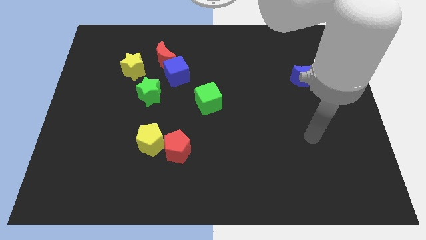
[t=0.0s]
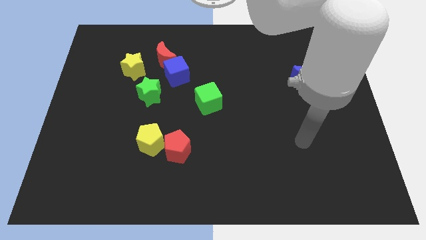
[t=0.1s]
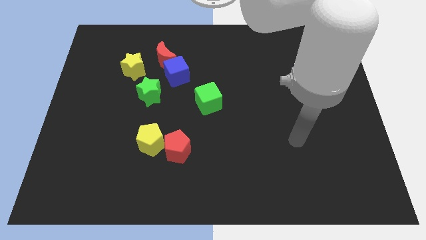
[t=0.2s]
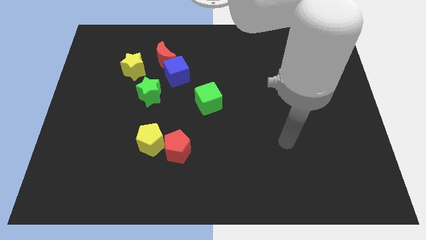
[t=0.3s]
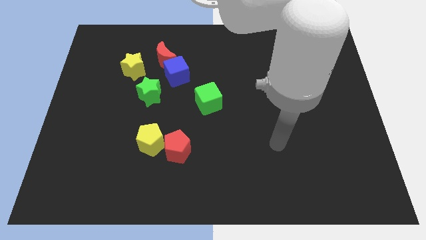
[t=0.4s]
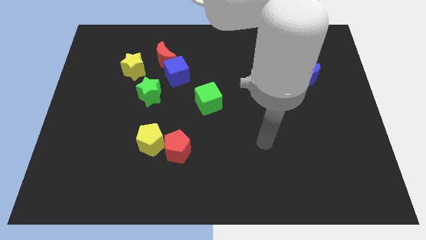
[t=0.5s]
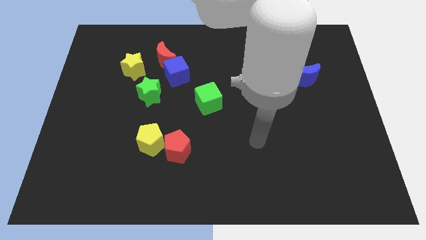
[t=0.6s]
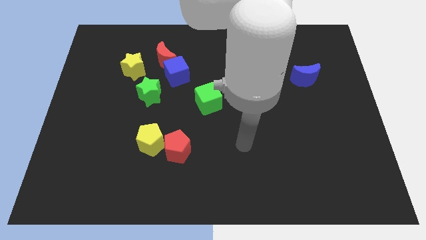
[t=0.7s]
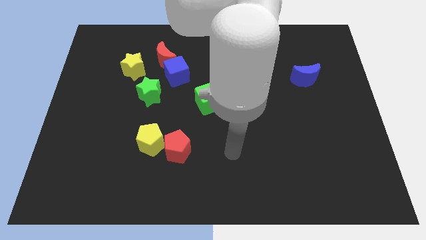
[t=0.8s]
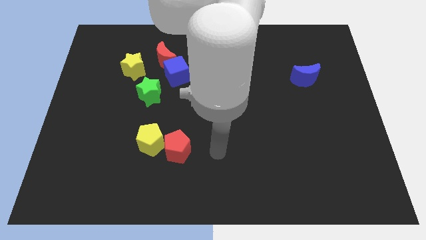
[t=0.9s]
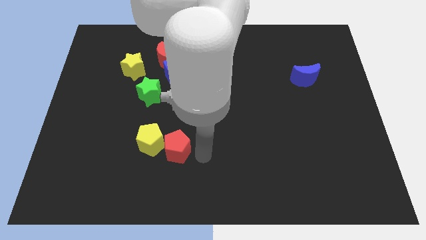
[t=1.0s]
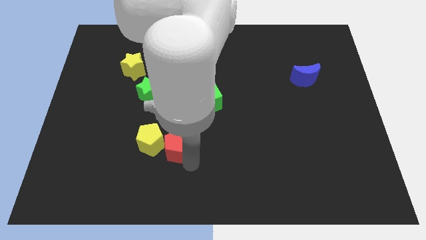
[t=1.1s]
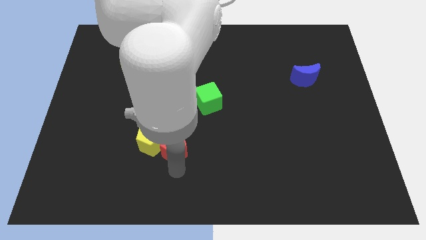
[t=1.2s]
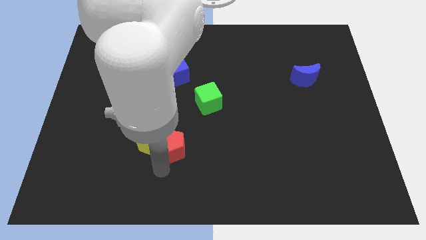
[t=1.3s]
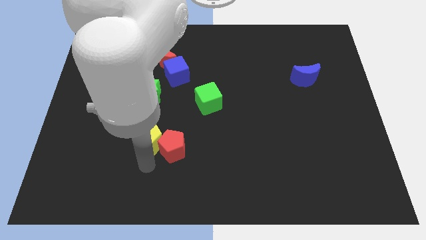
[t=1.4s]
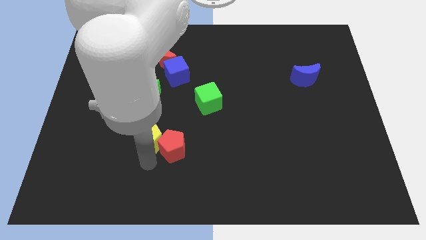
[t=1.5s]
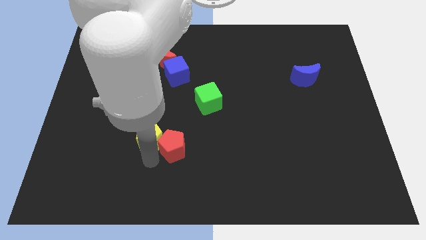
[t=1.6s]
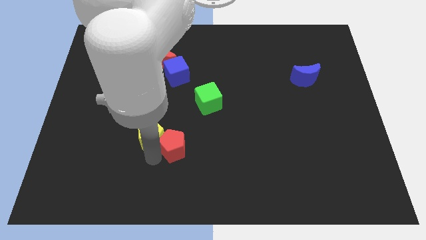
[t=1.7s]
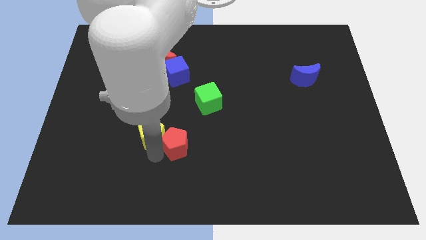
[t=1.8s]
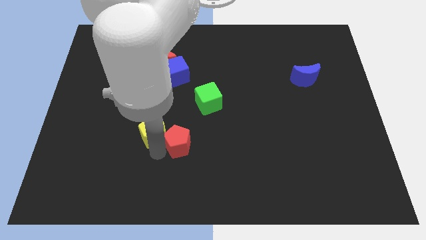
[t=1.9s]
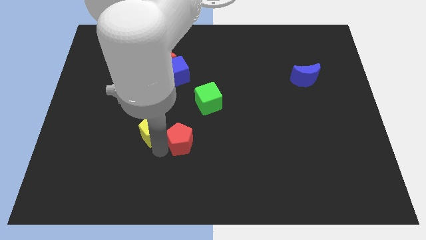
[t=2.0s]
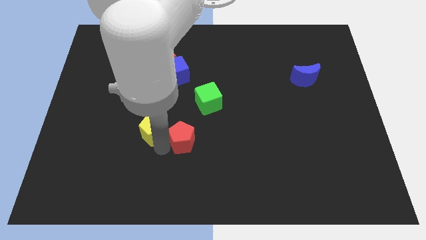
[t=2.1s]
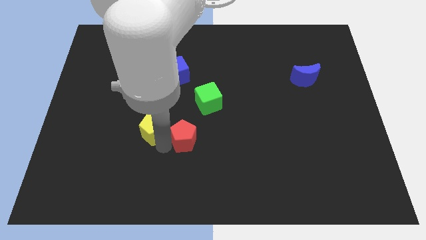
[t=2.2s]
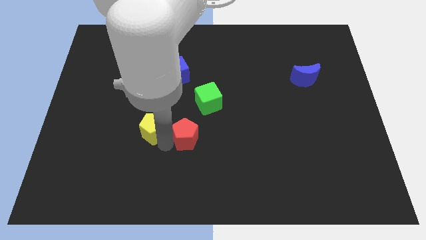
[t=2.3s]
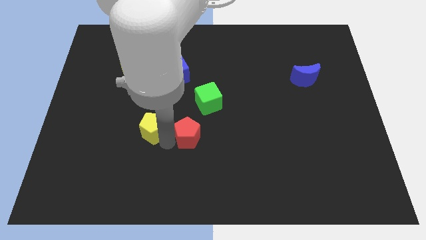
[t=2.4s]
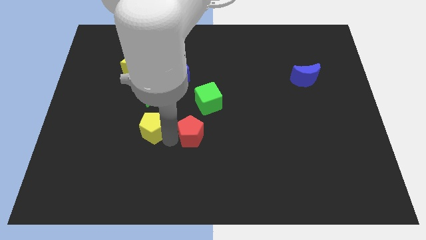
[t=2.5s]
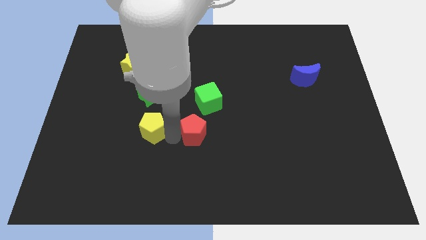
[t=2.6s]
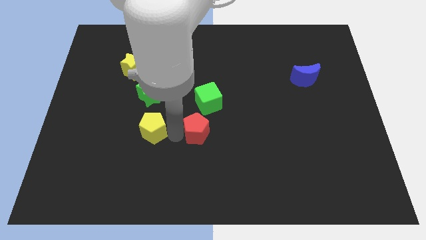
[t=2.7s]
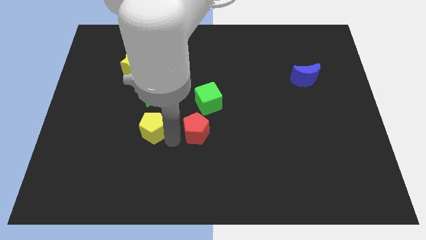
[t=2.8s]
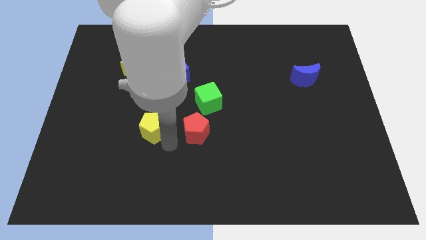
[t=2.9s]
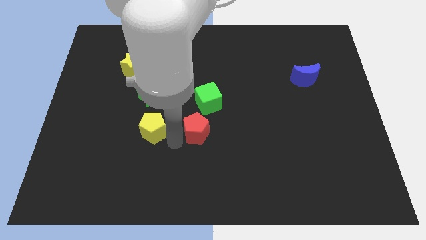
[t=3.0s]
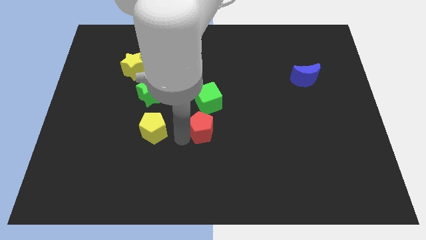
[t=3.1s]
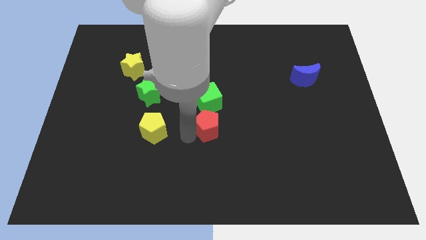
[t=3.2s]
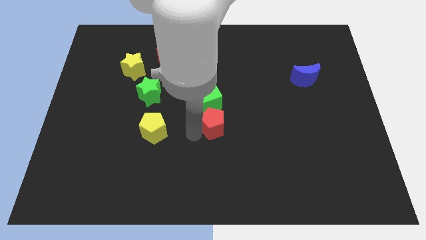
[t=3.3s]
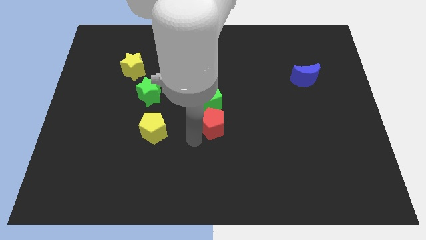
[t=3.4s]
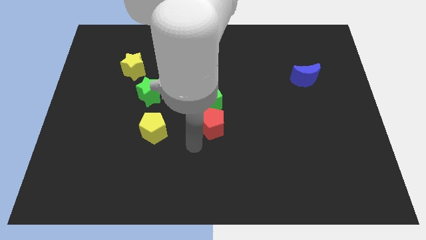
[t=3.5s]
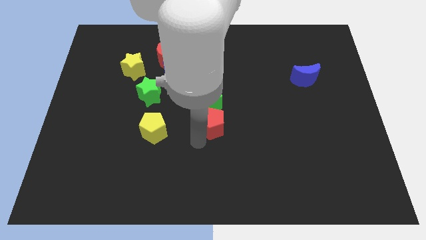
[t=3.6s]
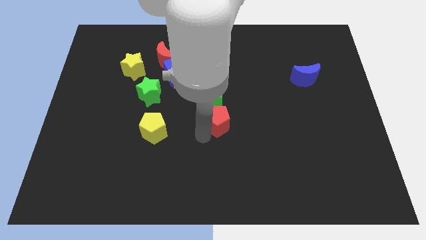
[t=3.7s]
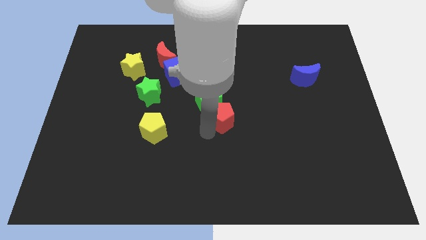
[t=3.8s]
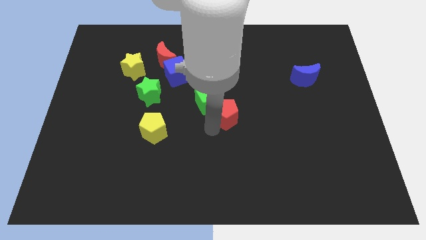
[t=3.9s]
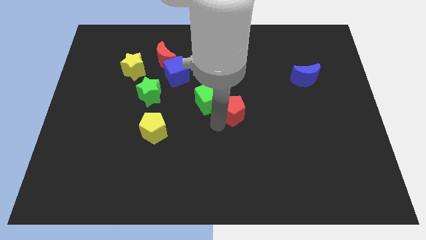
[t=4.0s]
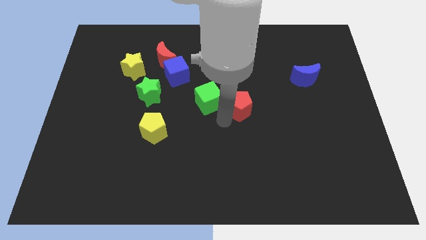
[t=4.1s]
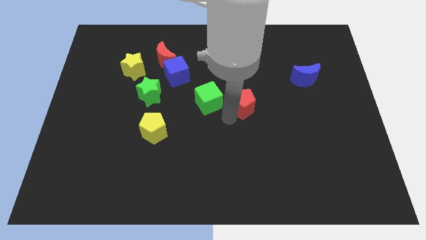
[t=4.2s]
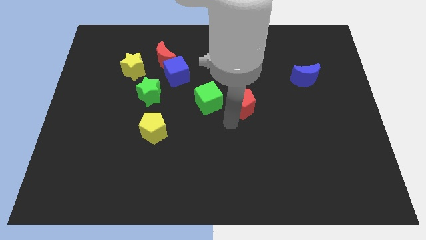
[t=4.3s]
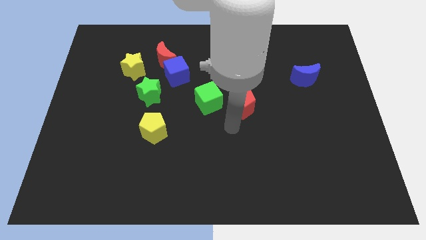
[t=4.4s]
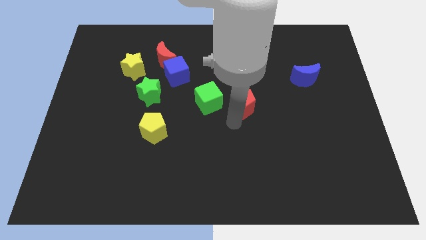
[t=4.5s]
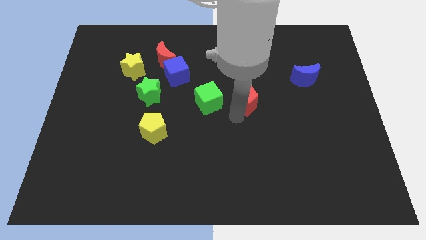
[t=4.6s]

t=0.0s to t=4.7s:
slide the red pentagon upwards and right diagonally

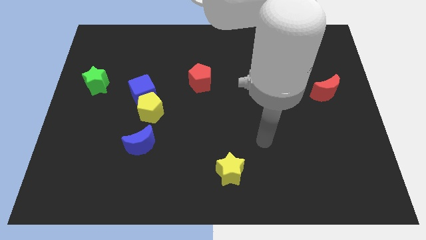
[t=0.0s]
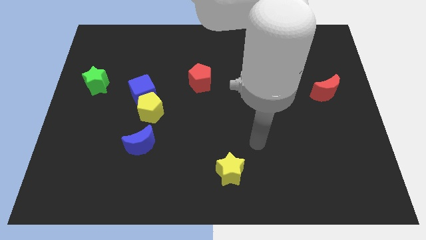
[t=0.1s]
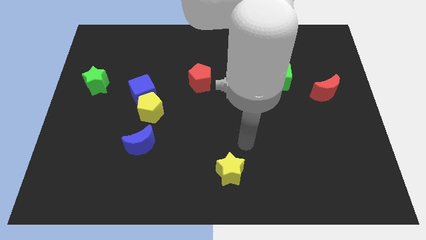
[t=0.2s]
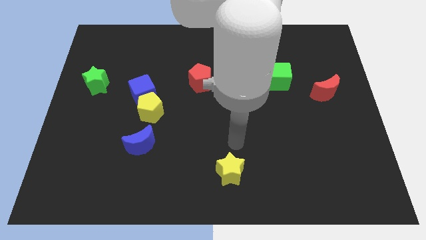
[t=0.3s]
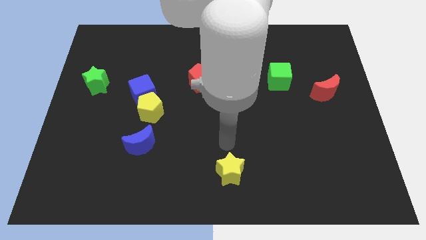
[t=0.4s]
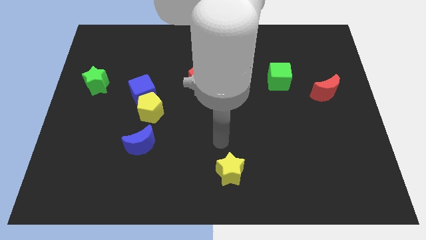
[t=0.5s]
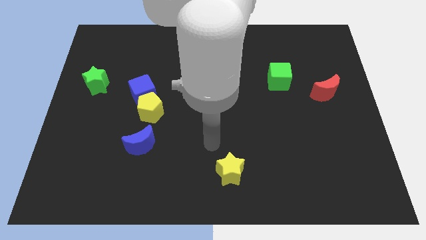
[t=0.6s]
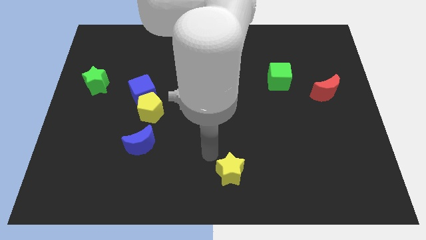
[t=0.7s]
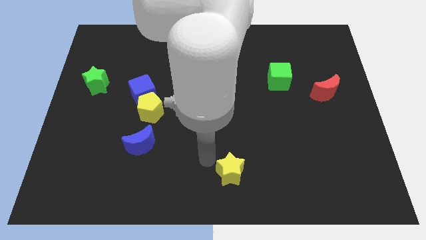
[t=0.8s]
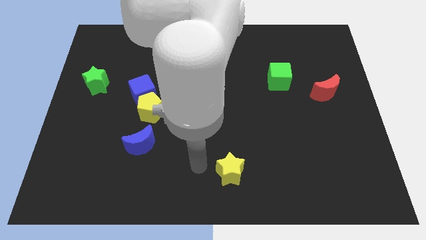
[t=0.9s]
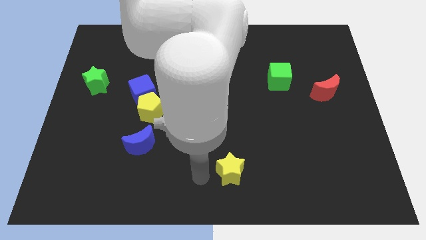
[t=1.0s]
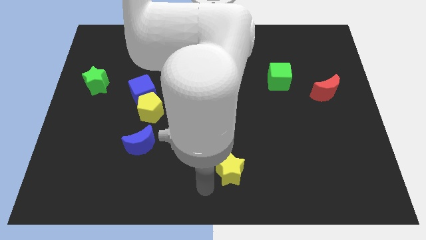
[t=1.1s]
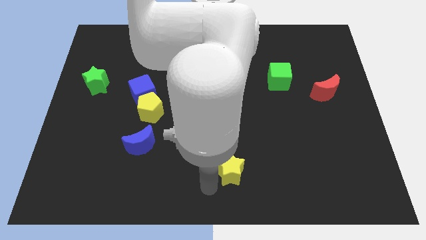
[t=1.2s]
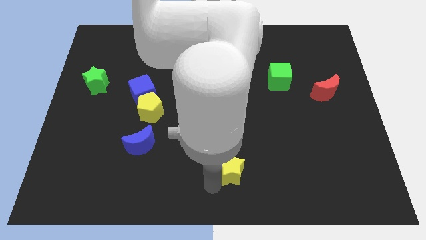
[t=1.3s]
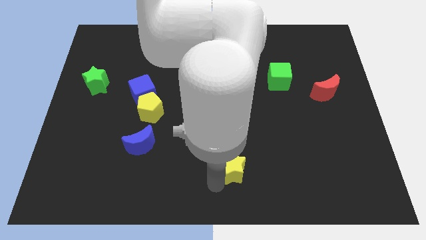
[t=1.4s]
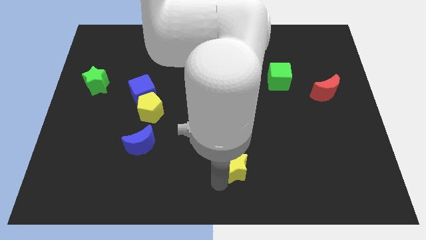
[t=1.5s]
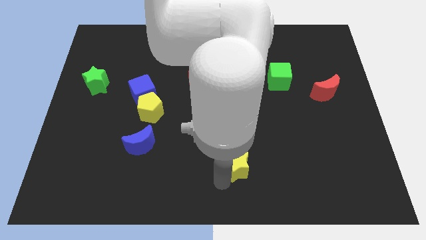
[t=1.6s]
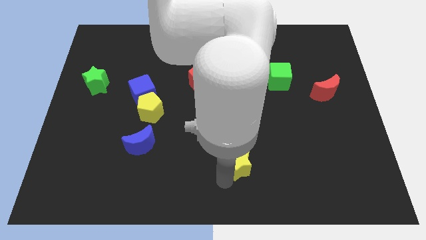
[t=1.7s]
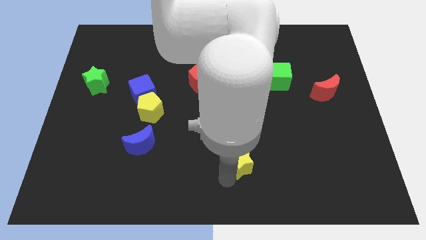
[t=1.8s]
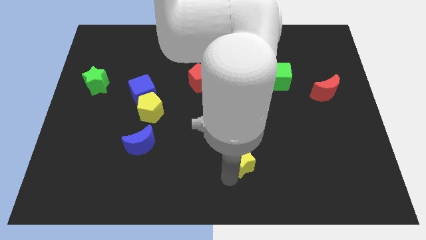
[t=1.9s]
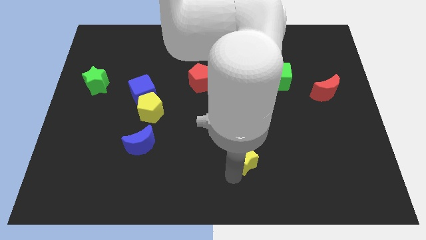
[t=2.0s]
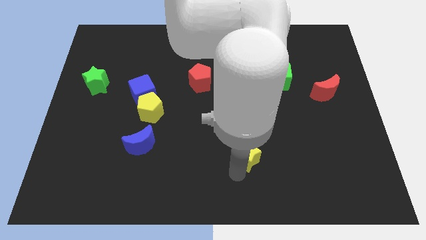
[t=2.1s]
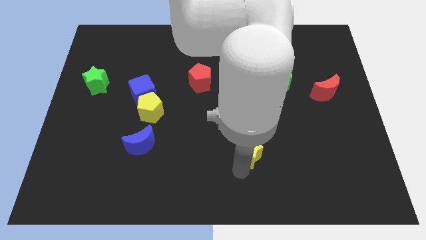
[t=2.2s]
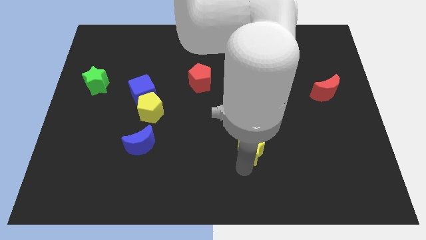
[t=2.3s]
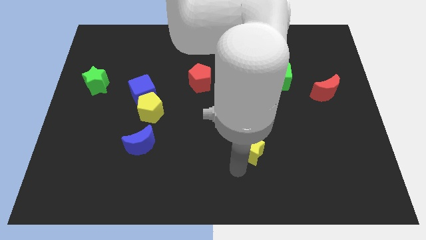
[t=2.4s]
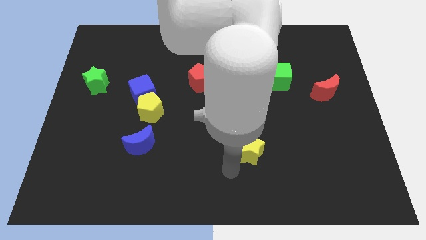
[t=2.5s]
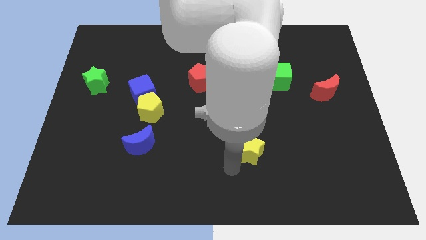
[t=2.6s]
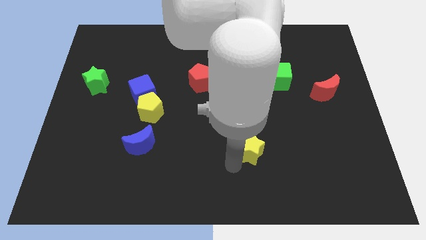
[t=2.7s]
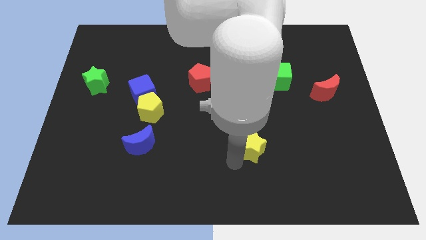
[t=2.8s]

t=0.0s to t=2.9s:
slide the yellow star up and then to the right a bit

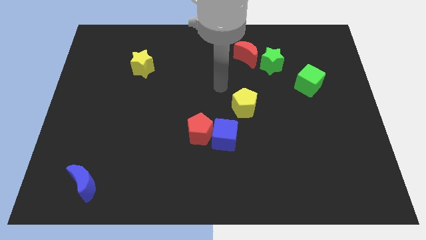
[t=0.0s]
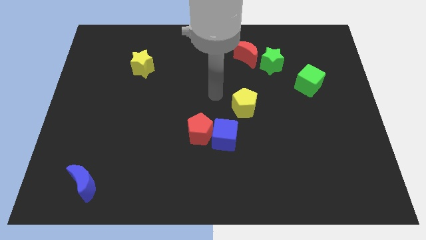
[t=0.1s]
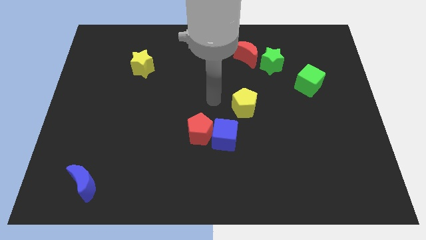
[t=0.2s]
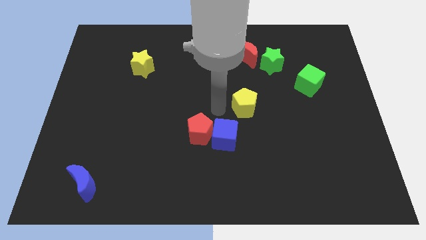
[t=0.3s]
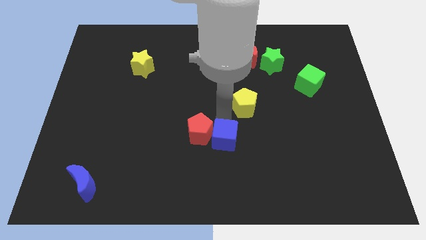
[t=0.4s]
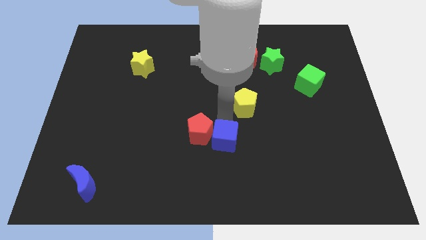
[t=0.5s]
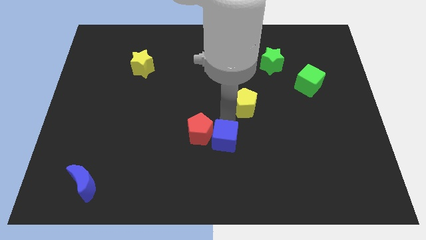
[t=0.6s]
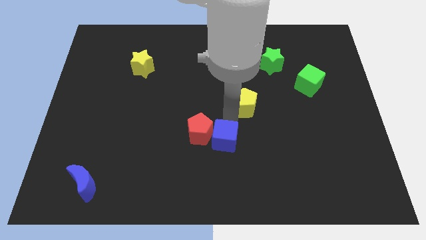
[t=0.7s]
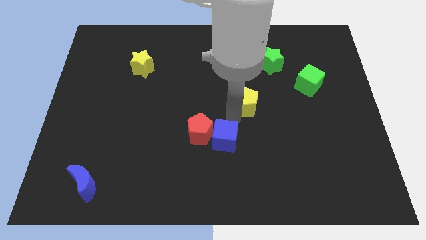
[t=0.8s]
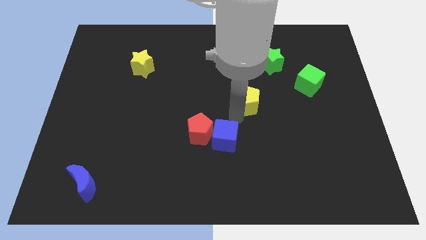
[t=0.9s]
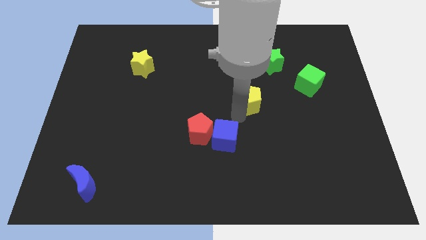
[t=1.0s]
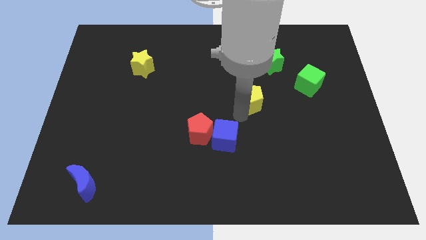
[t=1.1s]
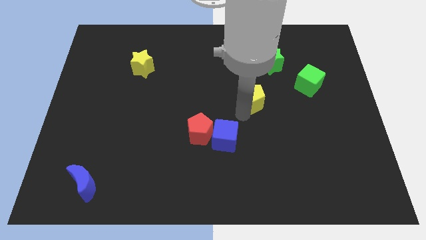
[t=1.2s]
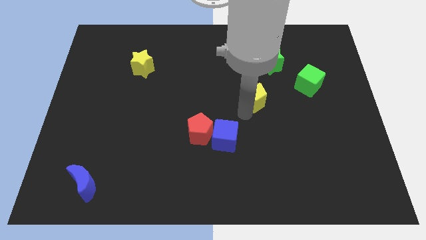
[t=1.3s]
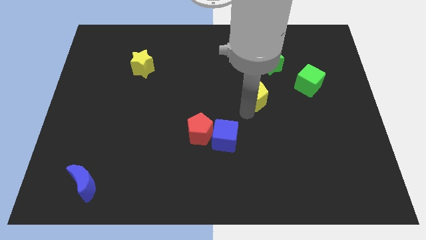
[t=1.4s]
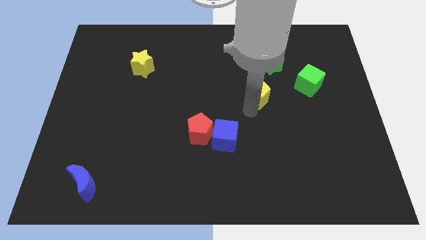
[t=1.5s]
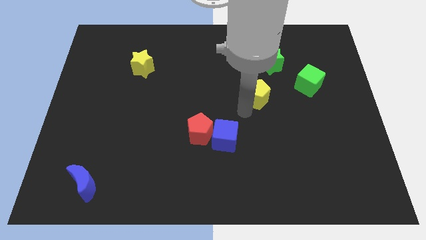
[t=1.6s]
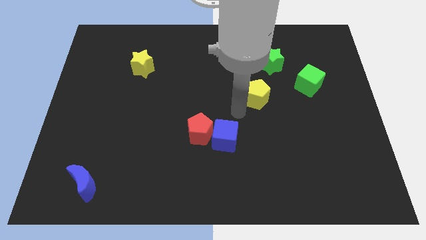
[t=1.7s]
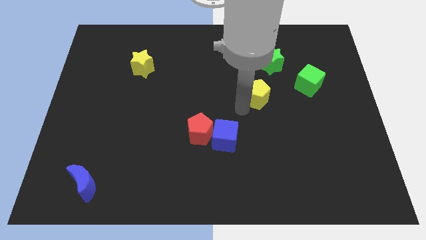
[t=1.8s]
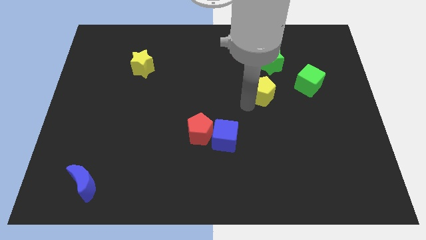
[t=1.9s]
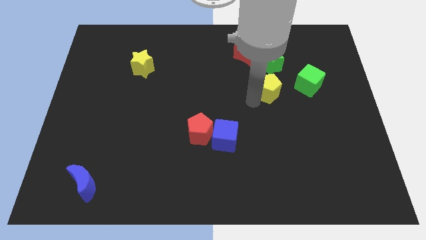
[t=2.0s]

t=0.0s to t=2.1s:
slide the yellow pentagon upwards and right diagonally a little
